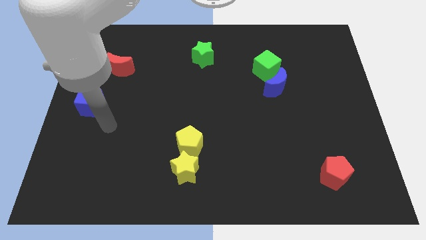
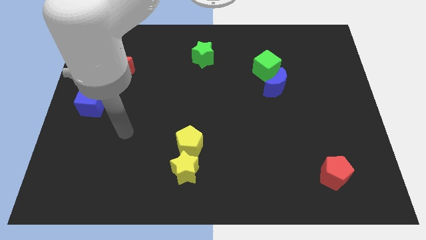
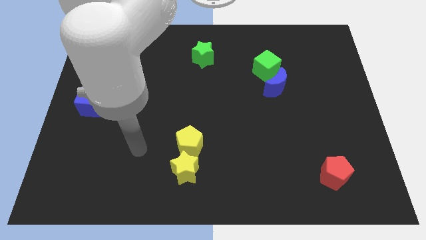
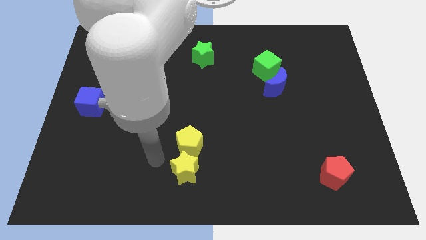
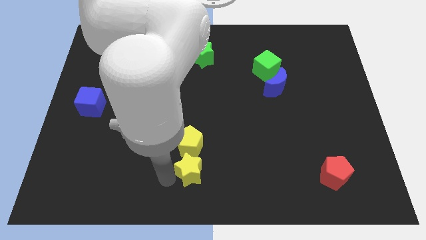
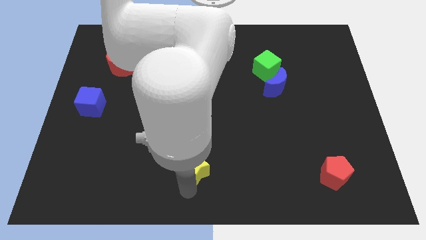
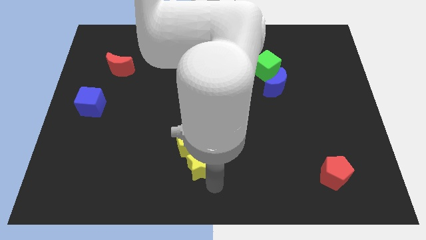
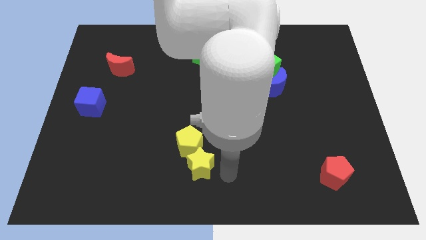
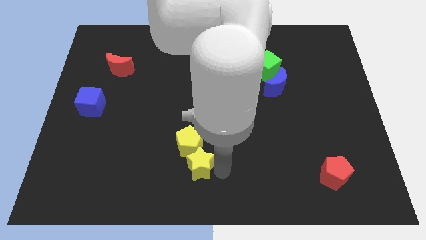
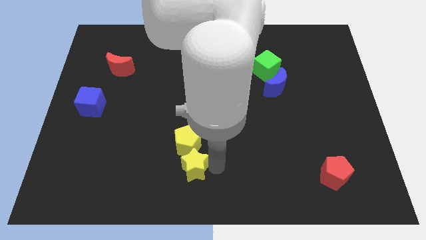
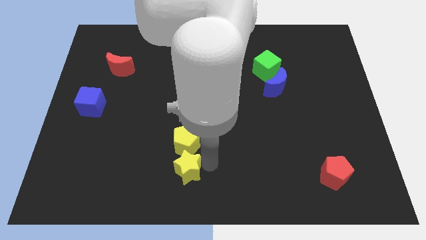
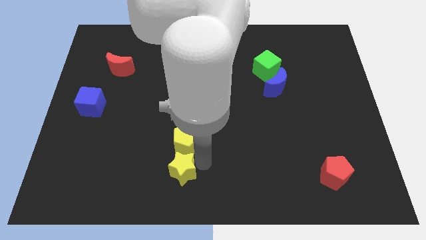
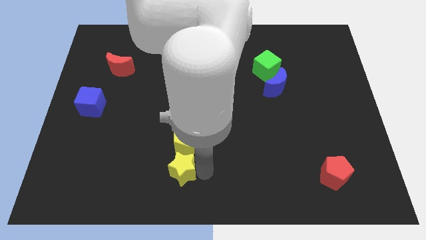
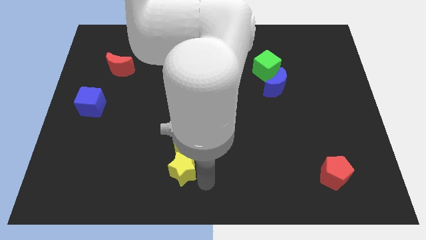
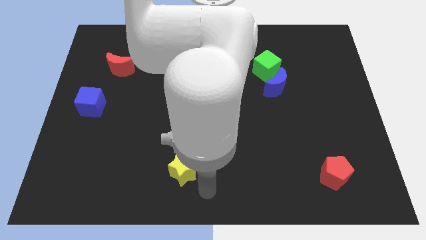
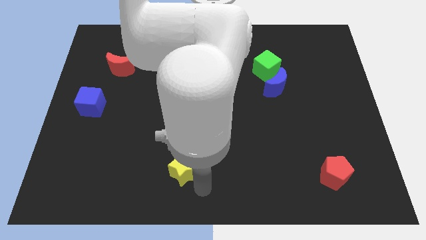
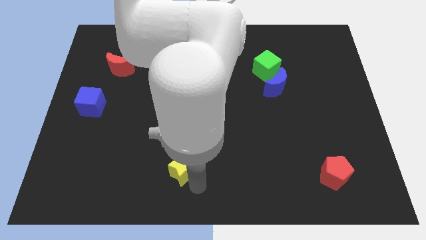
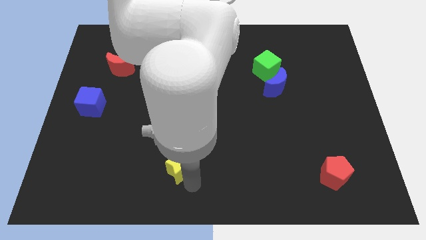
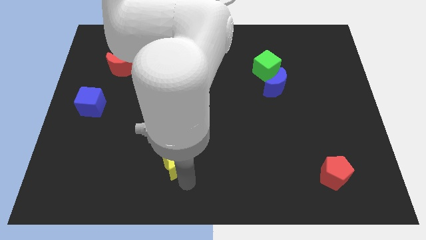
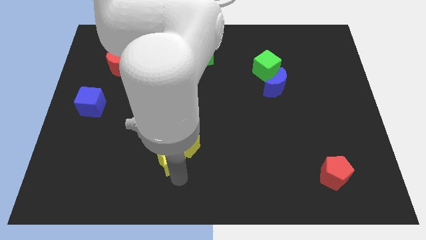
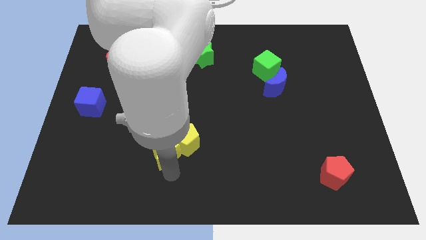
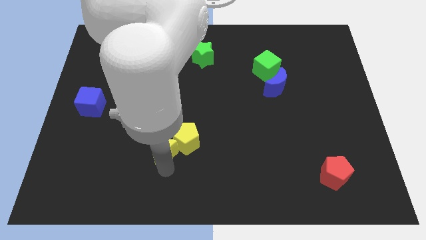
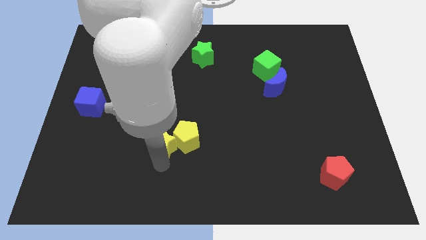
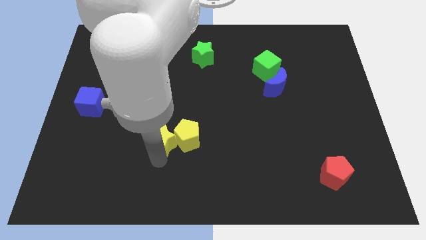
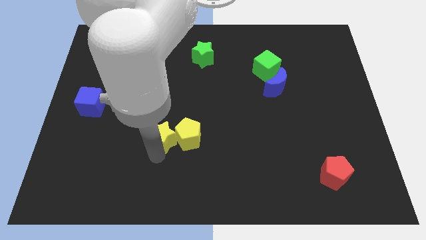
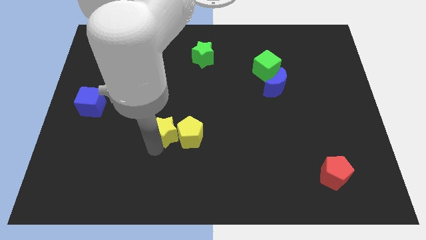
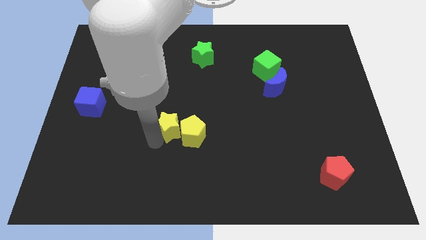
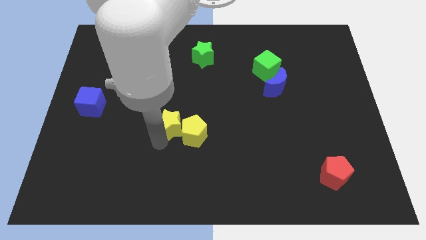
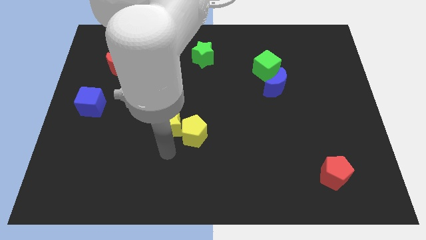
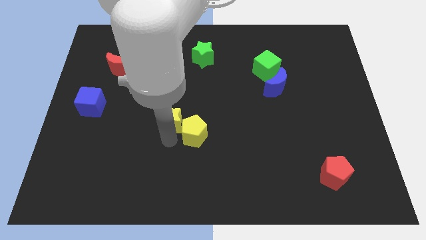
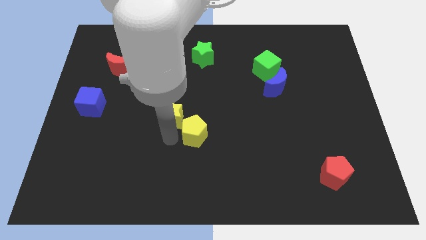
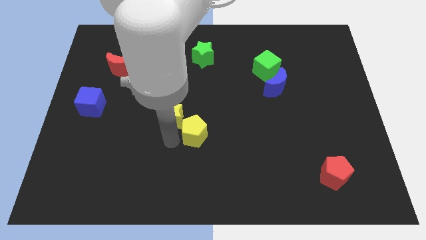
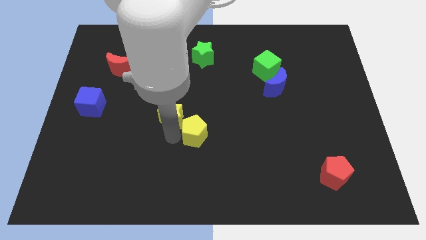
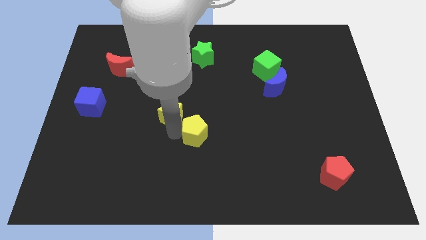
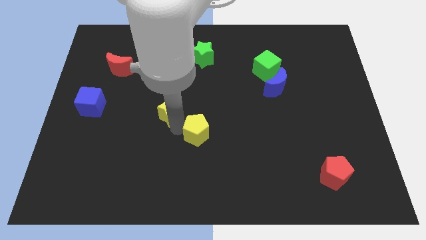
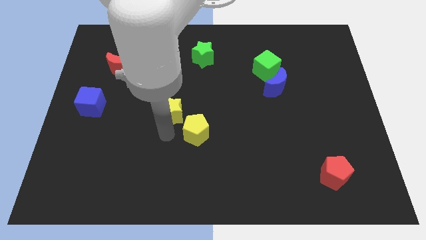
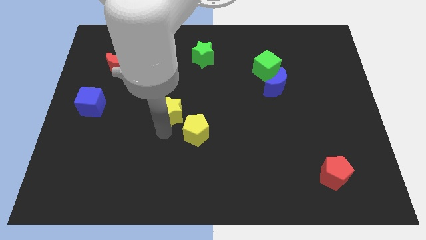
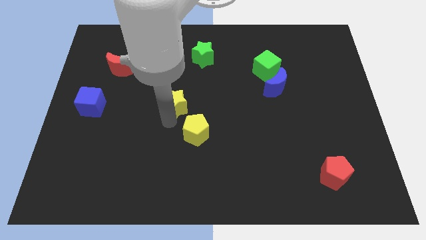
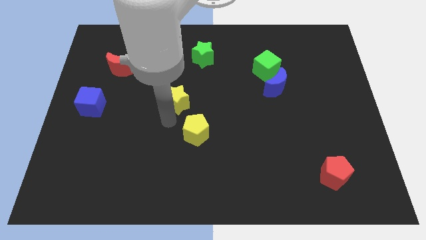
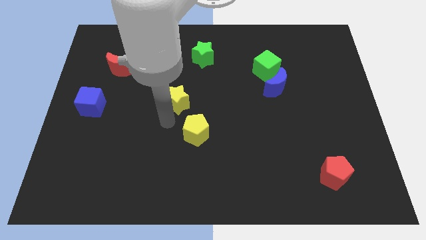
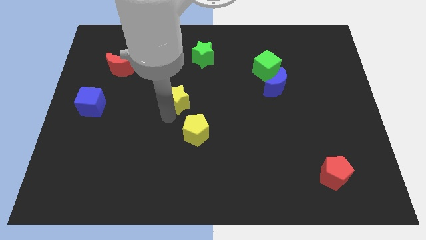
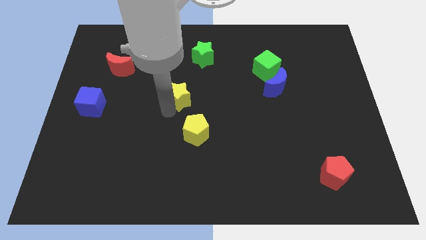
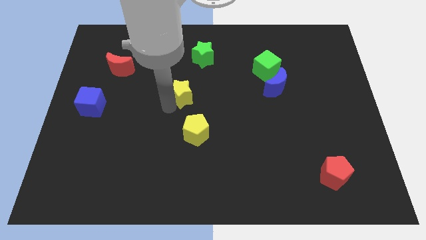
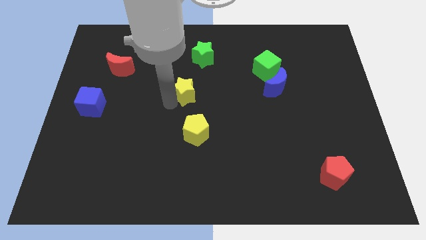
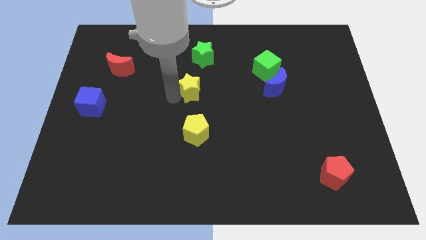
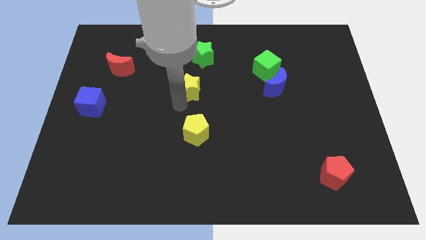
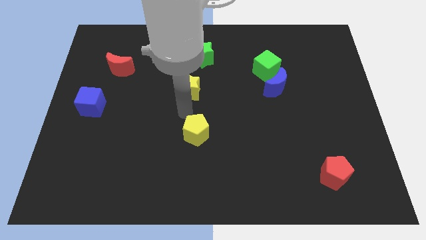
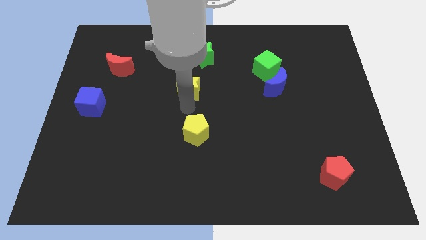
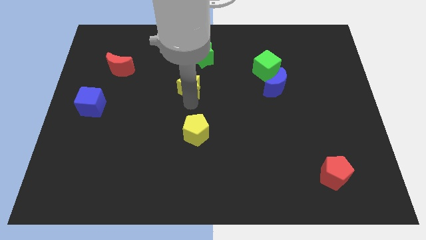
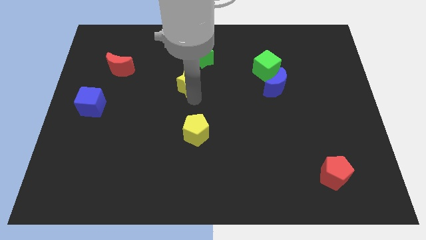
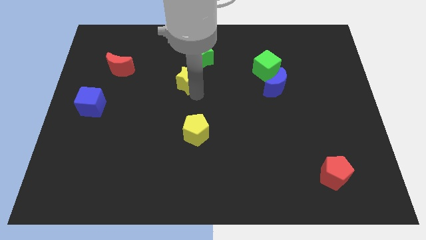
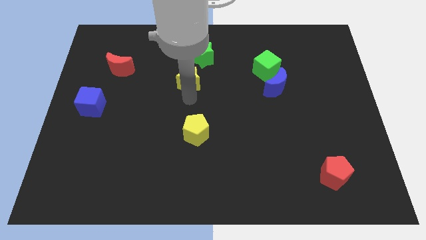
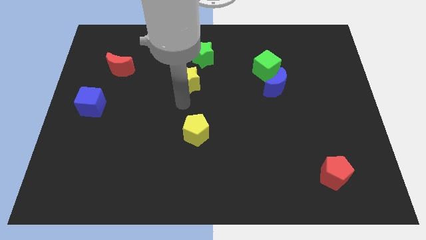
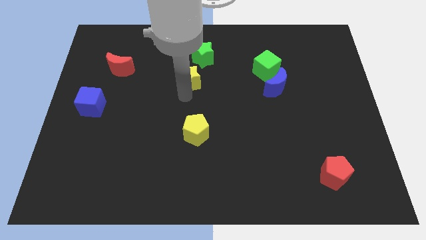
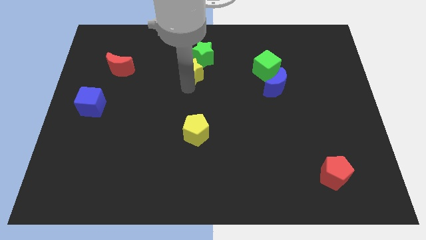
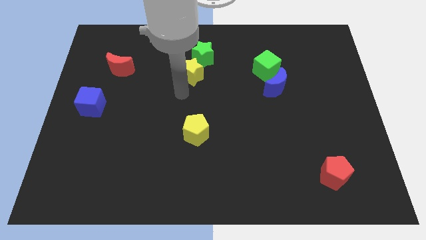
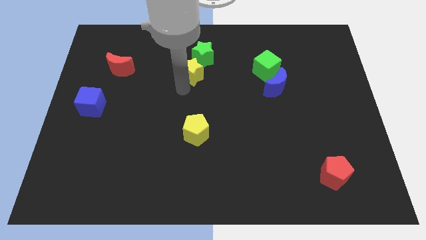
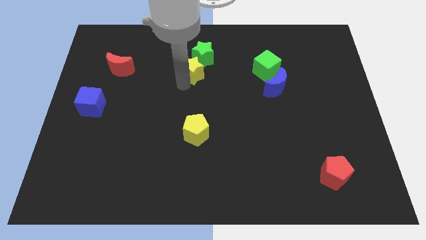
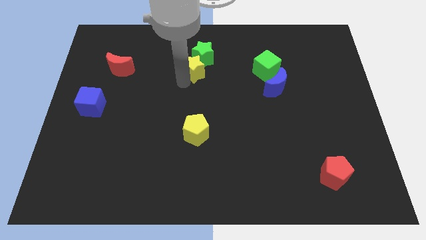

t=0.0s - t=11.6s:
put the yellow star close to the green star

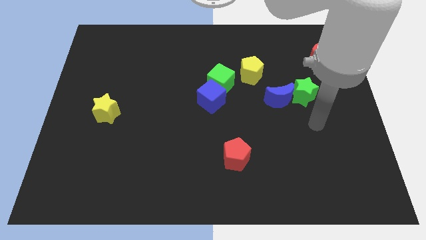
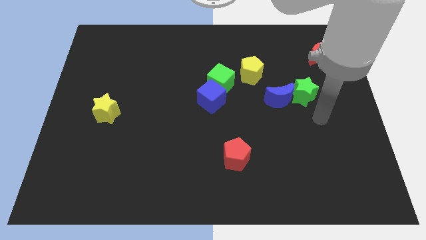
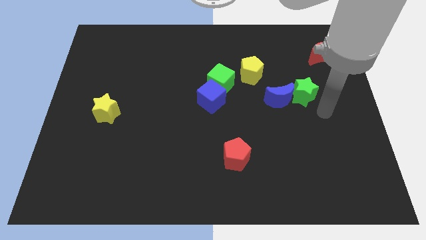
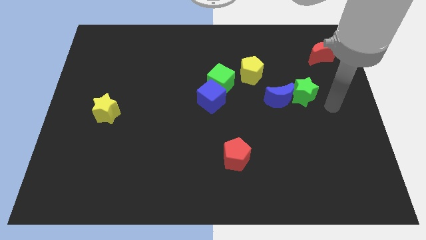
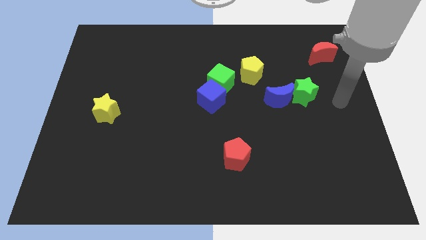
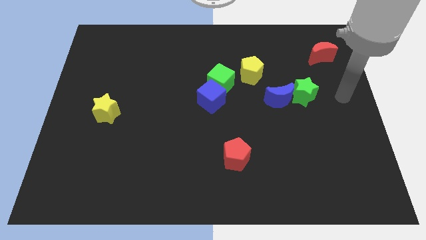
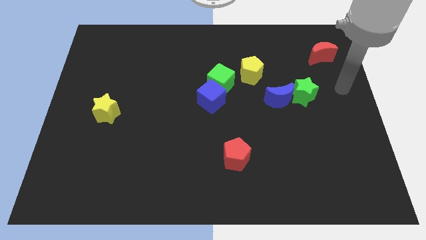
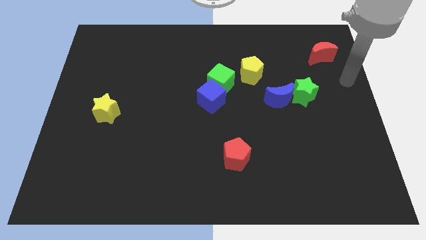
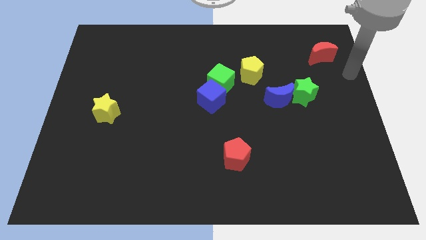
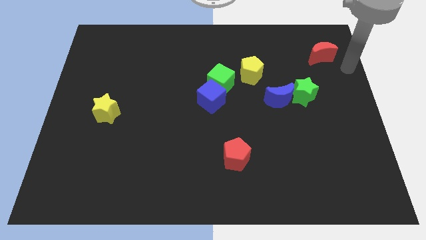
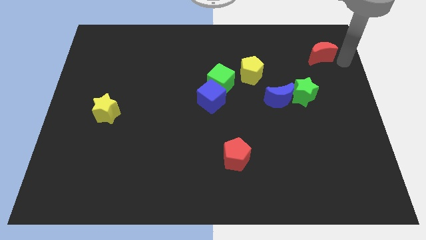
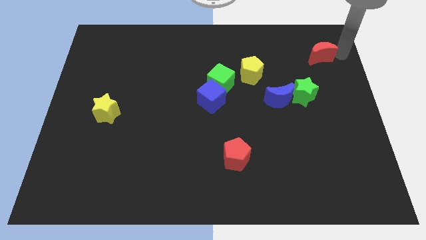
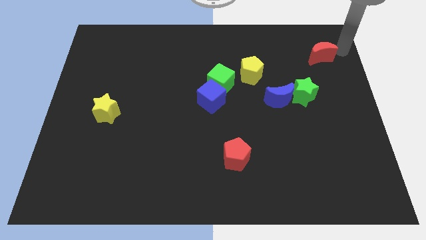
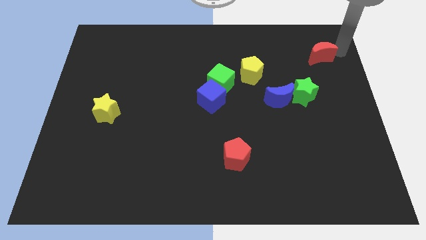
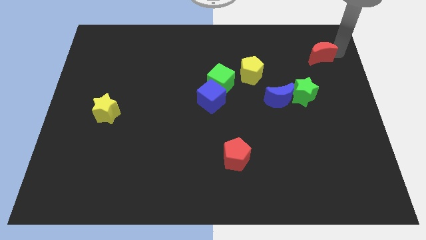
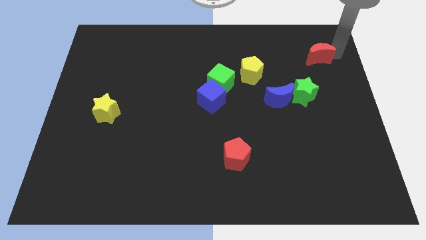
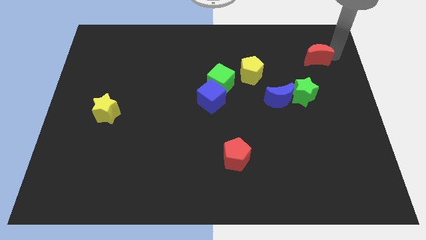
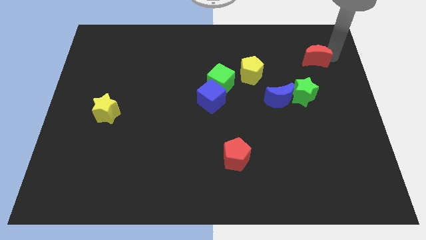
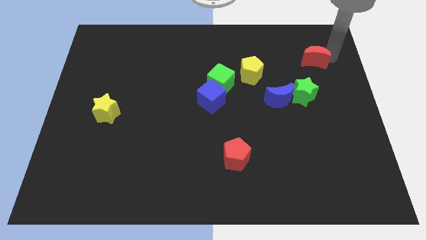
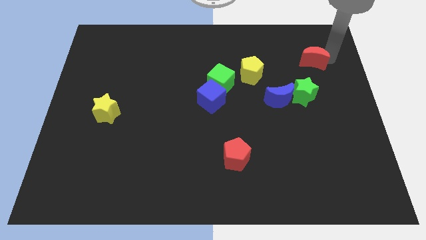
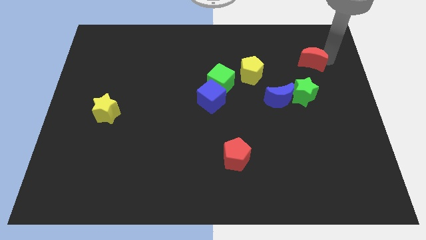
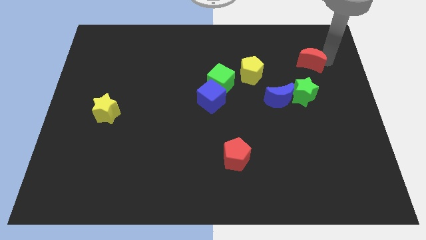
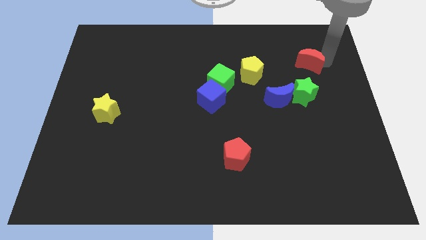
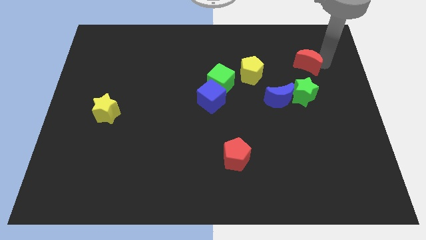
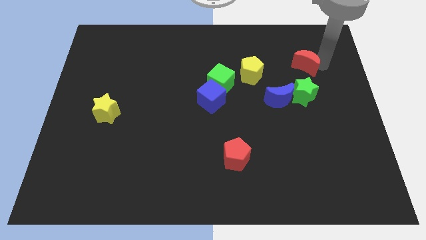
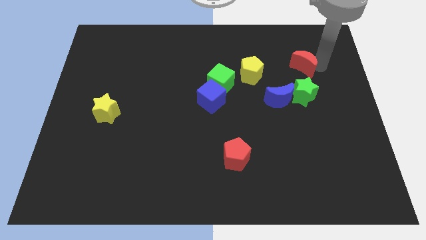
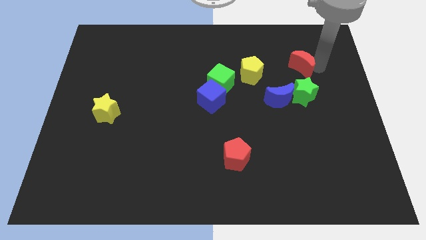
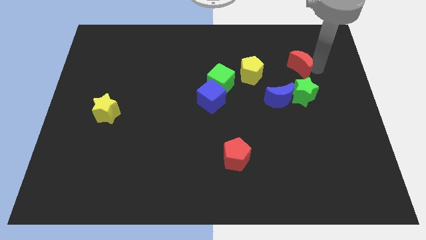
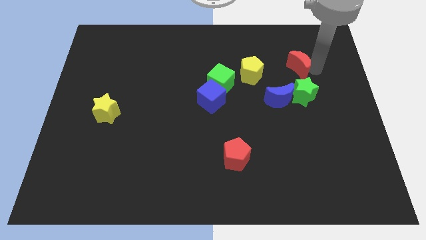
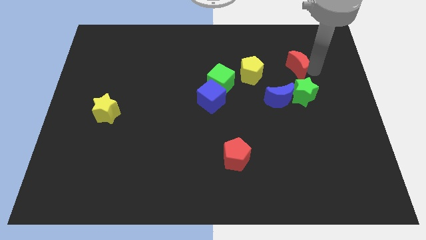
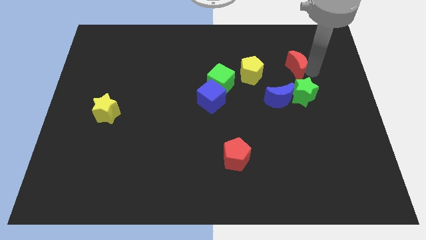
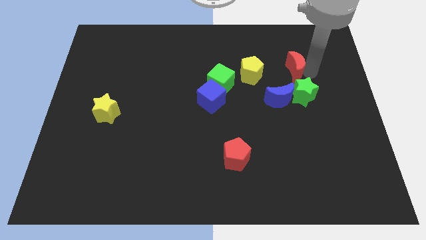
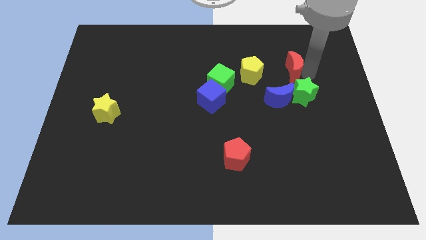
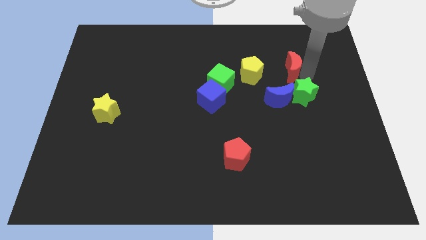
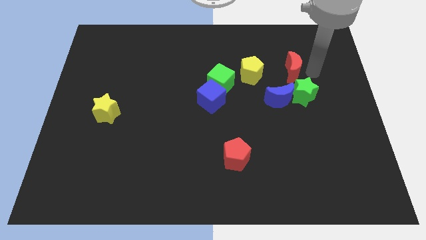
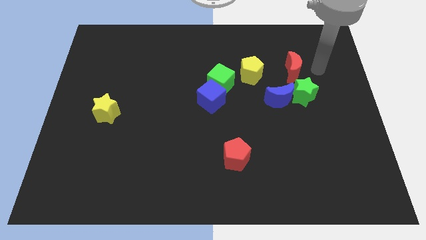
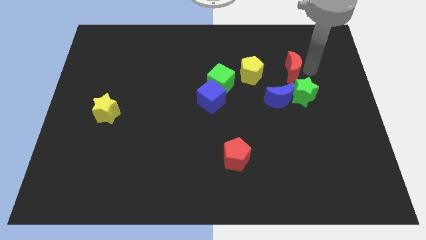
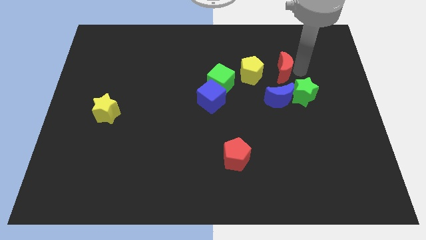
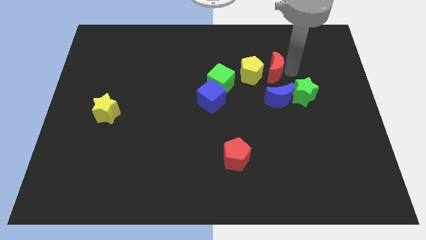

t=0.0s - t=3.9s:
move the red moon next to the yellow pentagon
